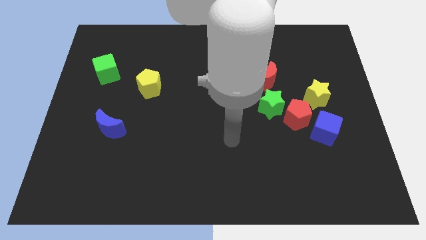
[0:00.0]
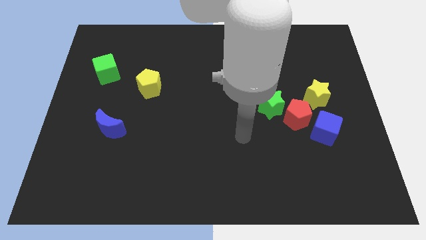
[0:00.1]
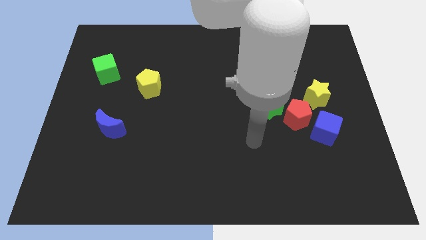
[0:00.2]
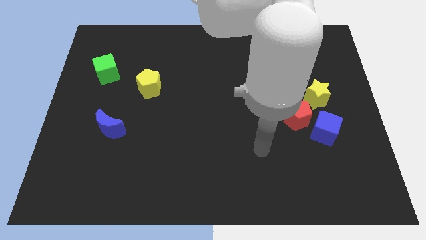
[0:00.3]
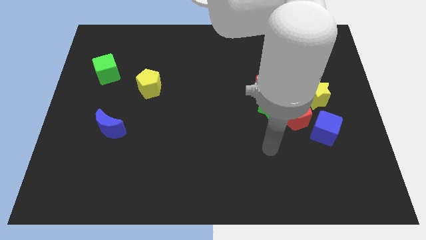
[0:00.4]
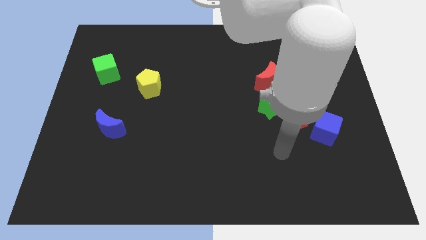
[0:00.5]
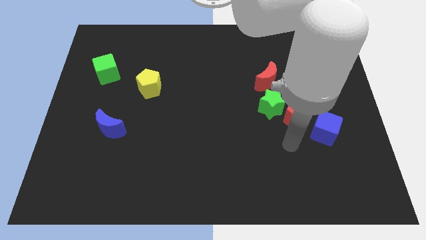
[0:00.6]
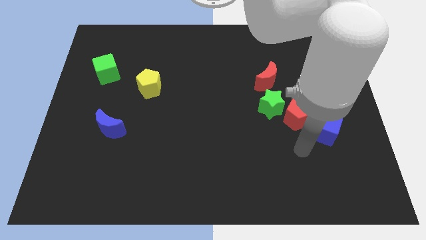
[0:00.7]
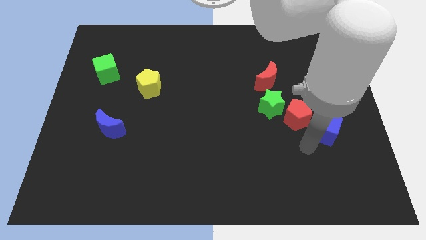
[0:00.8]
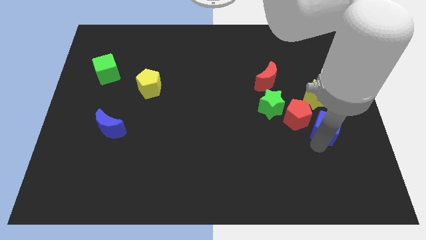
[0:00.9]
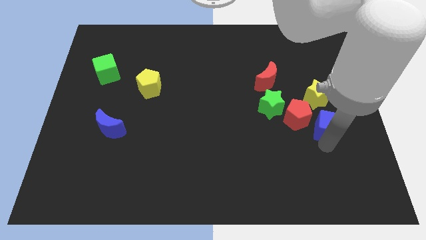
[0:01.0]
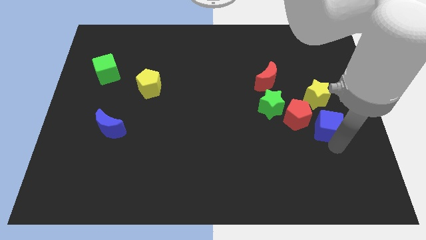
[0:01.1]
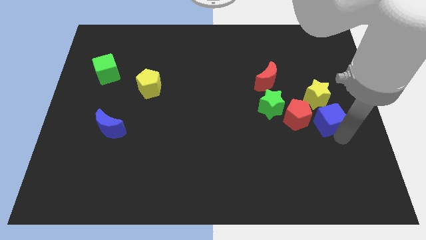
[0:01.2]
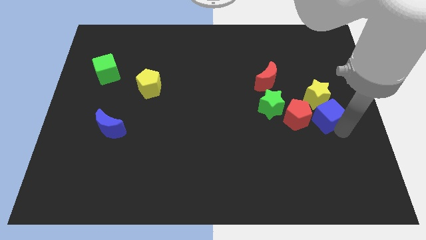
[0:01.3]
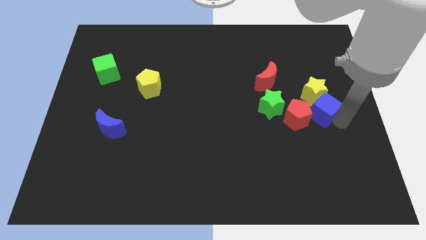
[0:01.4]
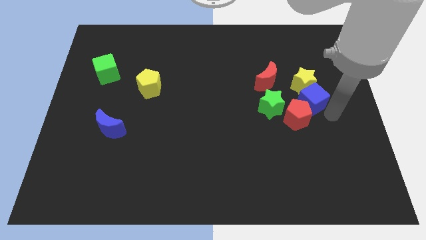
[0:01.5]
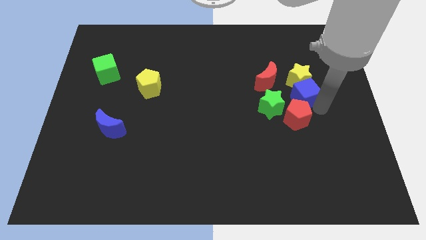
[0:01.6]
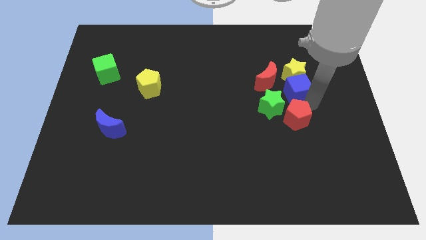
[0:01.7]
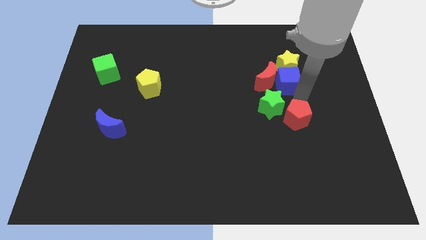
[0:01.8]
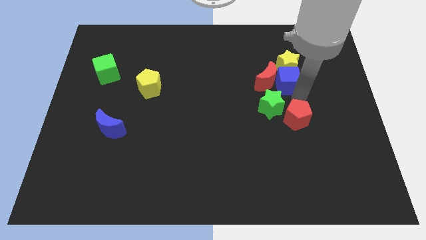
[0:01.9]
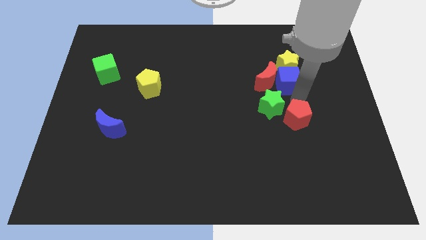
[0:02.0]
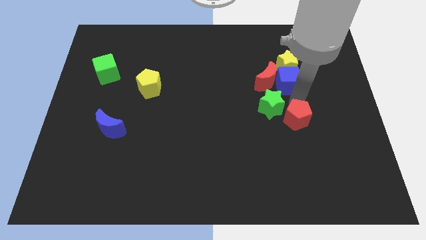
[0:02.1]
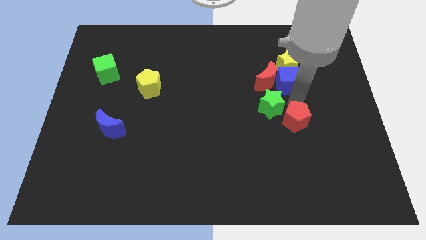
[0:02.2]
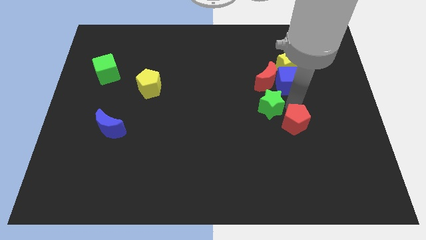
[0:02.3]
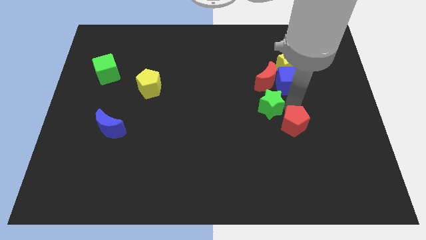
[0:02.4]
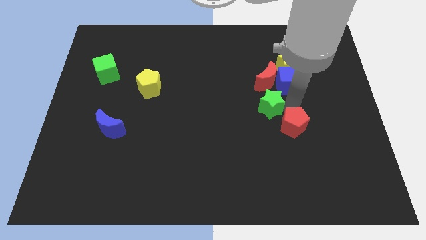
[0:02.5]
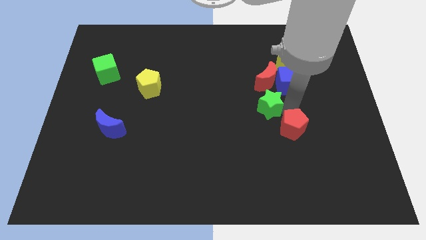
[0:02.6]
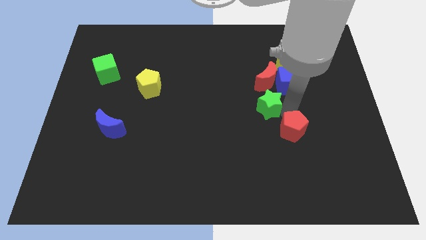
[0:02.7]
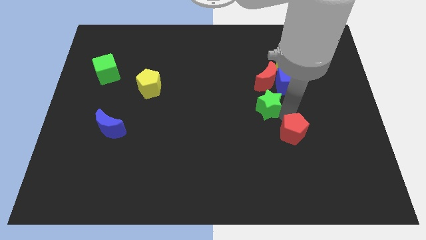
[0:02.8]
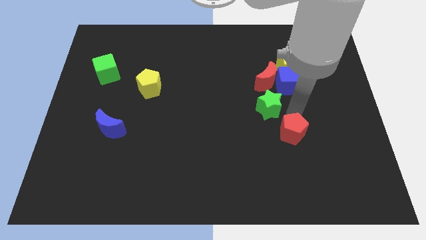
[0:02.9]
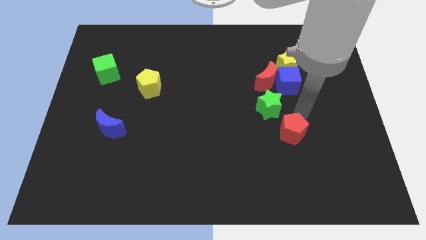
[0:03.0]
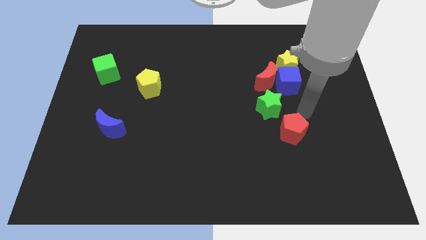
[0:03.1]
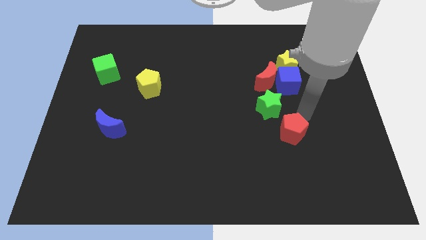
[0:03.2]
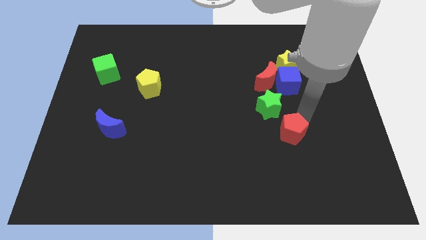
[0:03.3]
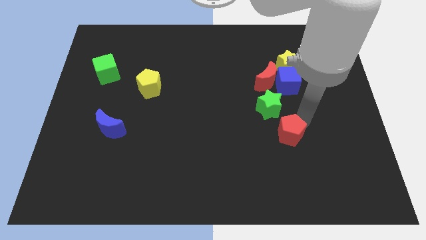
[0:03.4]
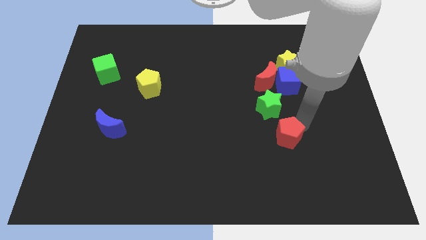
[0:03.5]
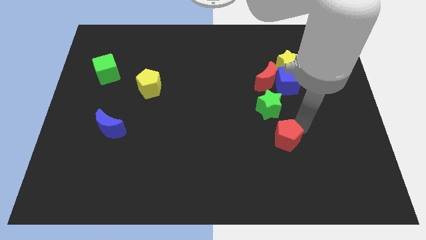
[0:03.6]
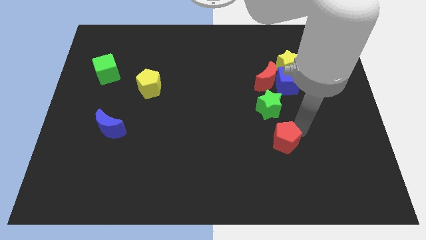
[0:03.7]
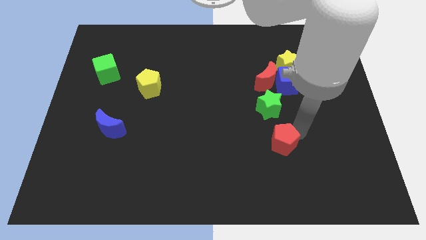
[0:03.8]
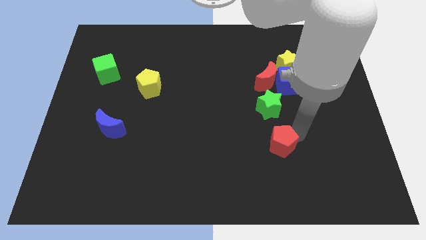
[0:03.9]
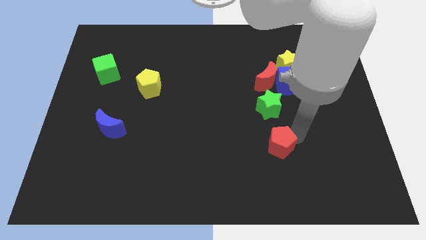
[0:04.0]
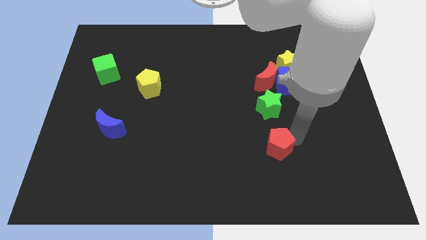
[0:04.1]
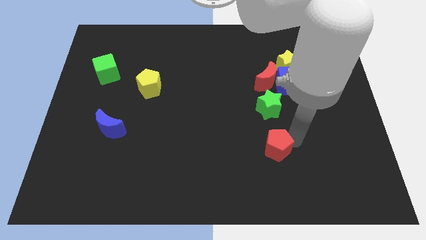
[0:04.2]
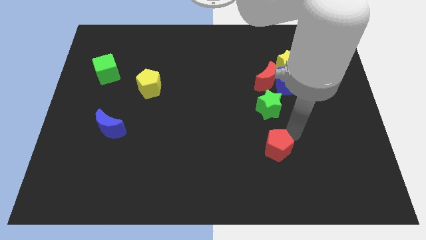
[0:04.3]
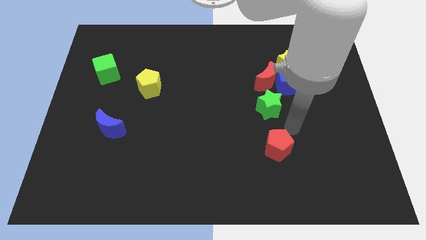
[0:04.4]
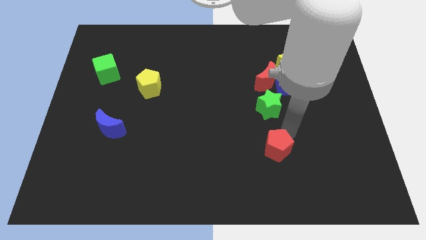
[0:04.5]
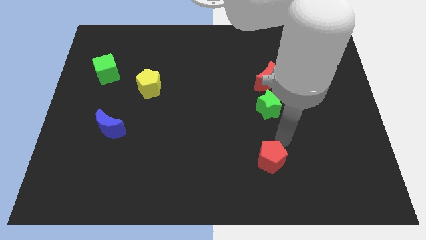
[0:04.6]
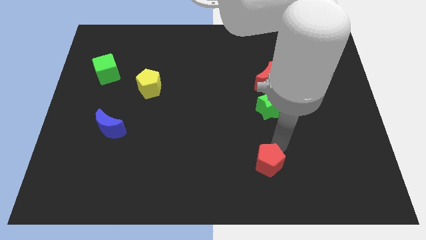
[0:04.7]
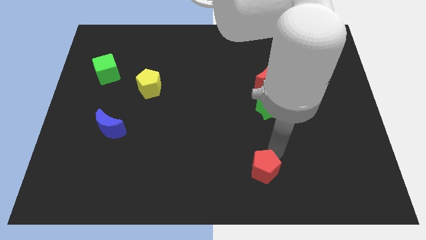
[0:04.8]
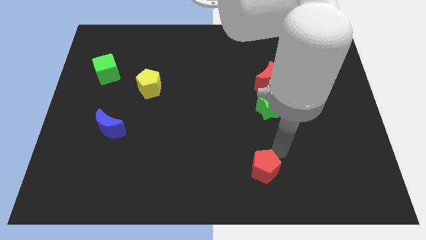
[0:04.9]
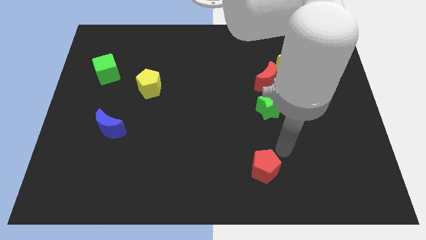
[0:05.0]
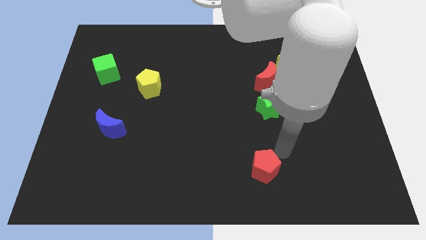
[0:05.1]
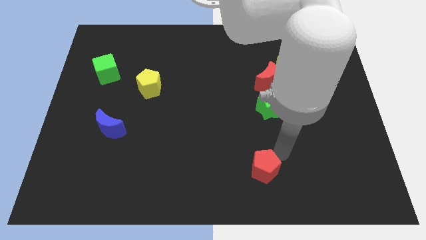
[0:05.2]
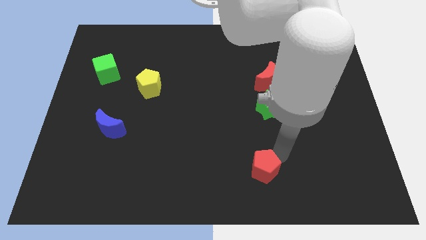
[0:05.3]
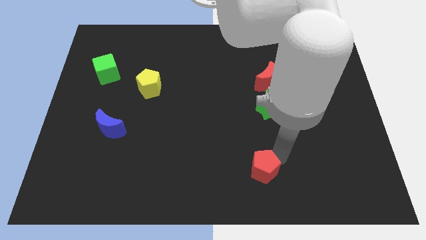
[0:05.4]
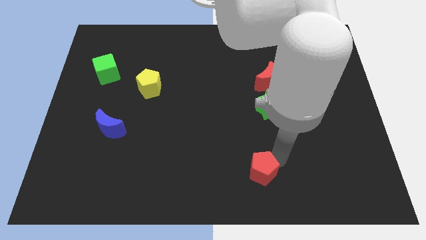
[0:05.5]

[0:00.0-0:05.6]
move the red pentagon to the bottom side
